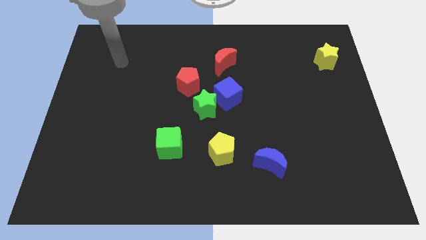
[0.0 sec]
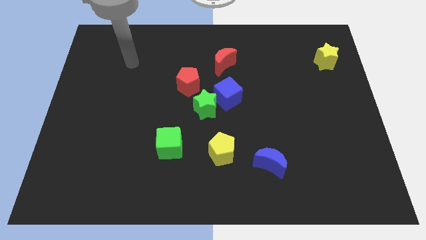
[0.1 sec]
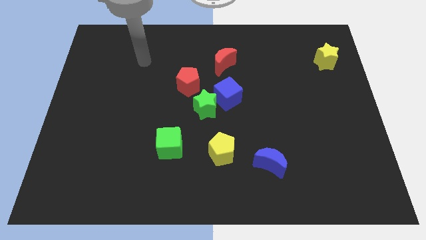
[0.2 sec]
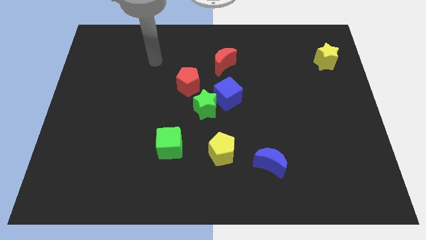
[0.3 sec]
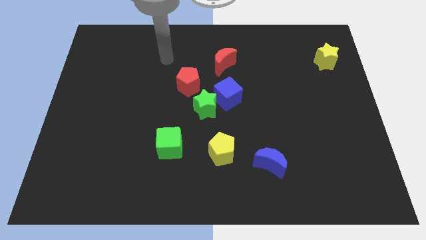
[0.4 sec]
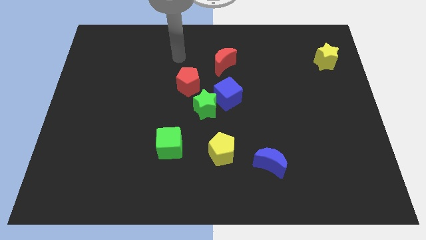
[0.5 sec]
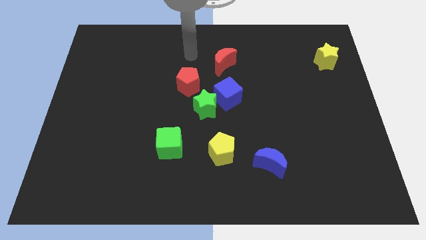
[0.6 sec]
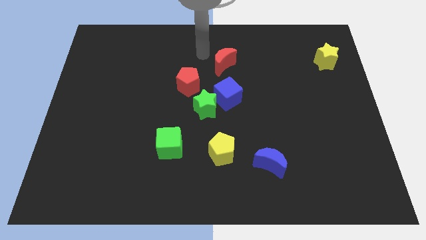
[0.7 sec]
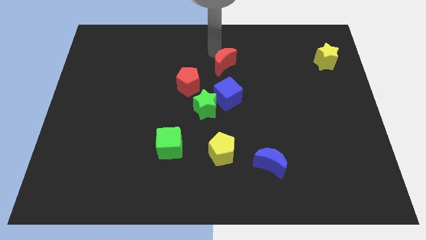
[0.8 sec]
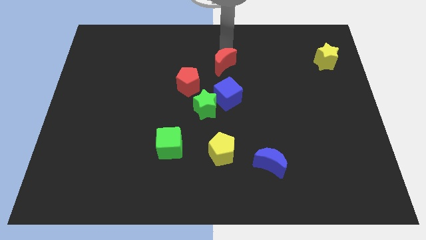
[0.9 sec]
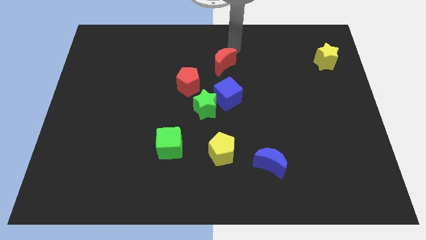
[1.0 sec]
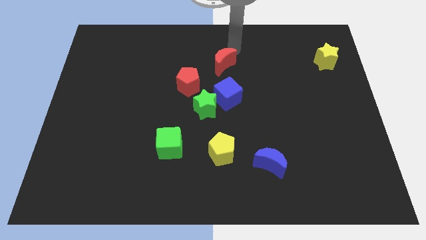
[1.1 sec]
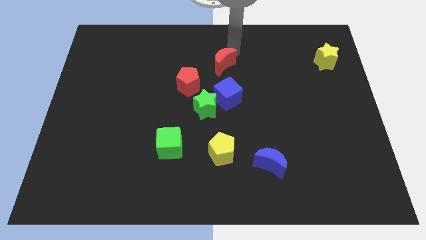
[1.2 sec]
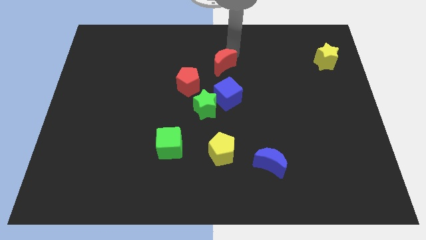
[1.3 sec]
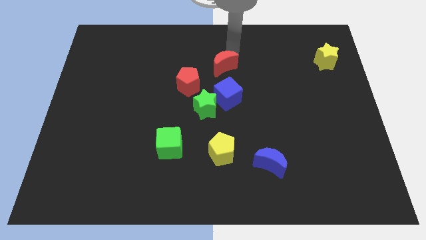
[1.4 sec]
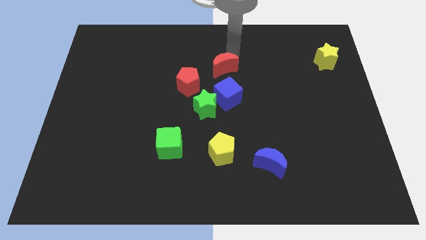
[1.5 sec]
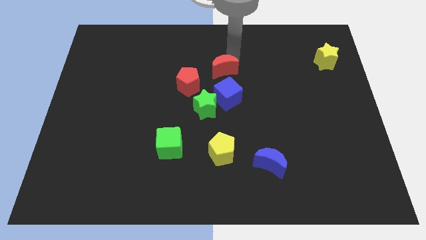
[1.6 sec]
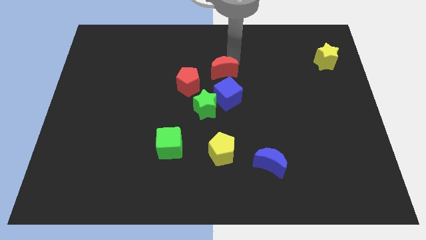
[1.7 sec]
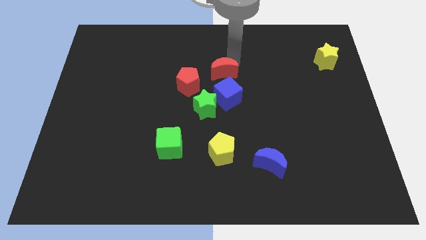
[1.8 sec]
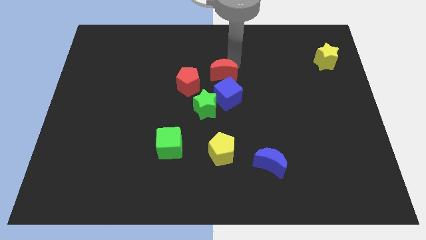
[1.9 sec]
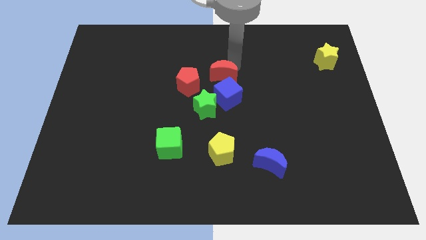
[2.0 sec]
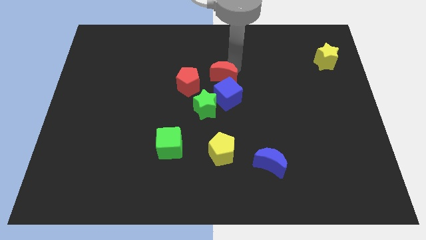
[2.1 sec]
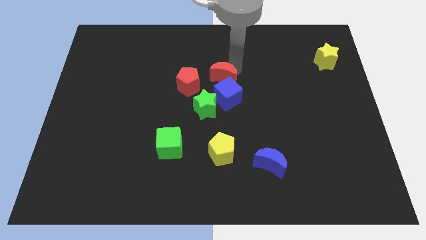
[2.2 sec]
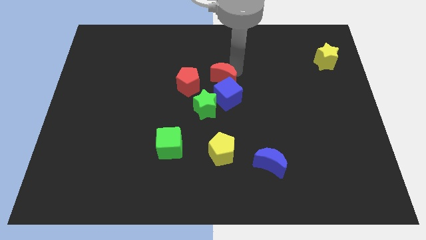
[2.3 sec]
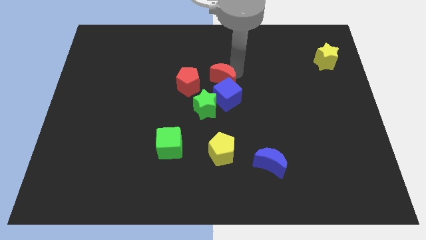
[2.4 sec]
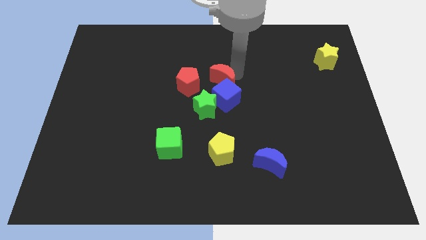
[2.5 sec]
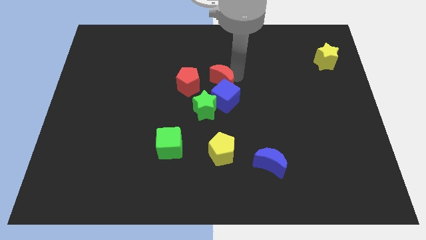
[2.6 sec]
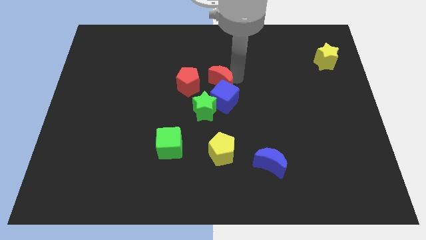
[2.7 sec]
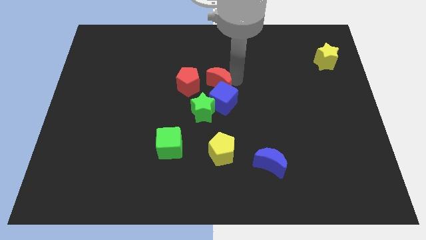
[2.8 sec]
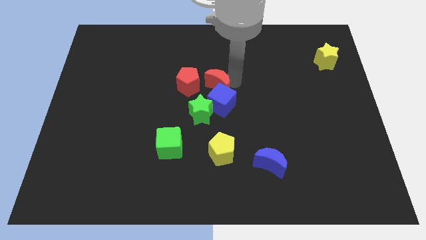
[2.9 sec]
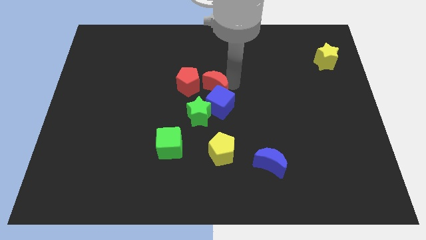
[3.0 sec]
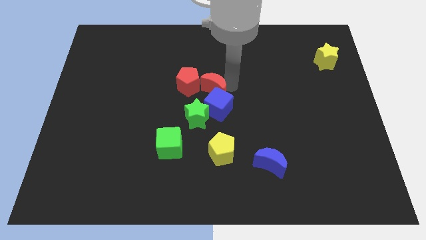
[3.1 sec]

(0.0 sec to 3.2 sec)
push the red moon down and to the left slightly

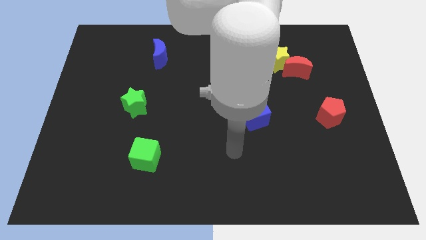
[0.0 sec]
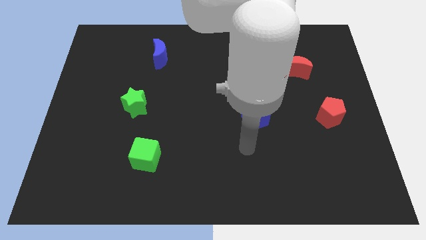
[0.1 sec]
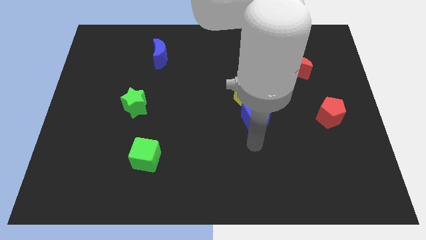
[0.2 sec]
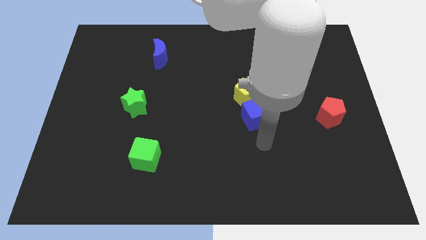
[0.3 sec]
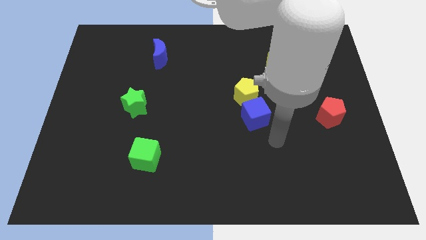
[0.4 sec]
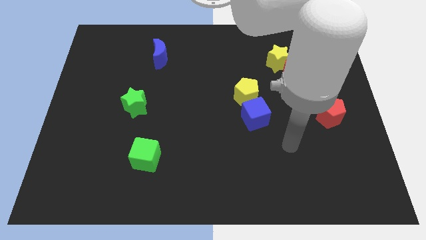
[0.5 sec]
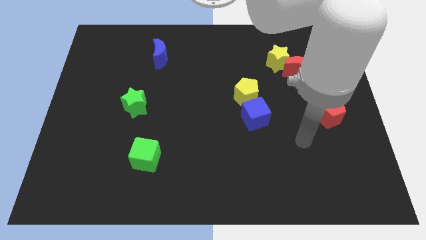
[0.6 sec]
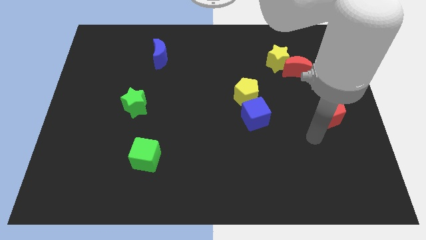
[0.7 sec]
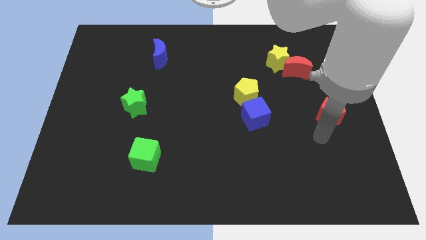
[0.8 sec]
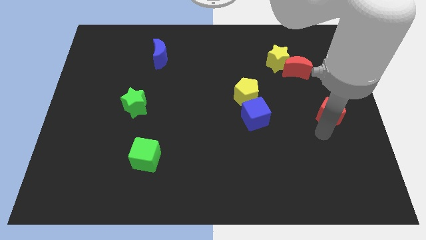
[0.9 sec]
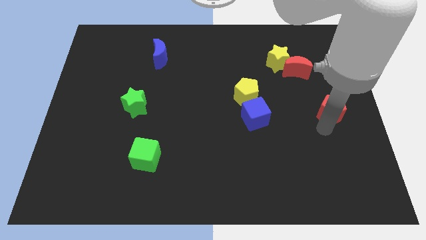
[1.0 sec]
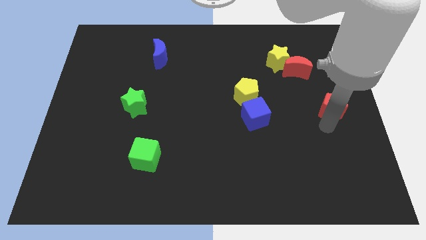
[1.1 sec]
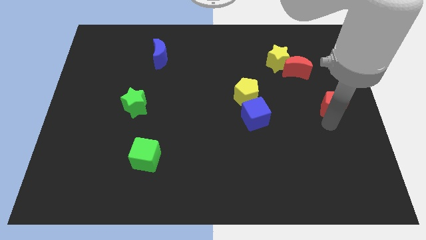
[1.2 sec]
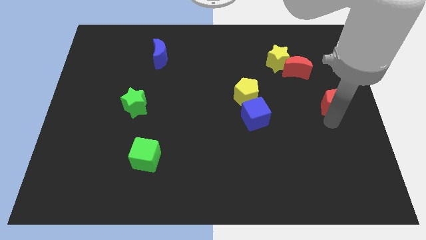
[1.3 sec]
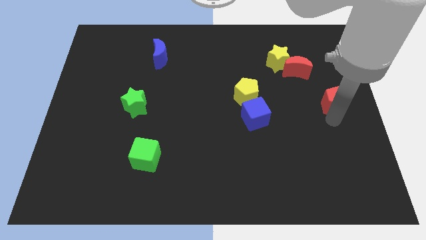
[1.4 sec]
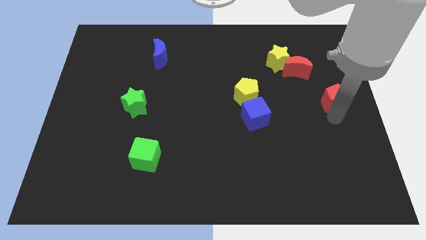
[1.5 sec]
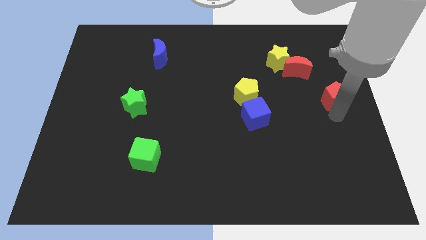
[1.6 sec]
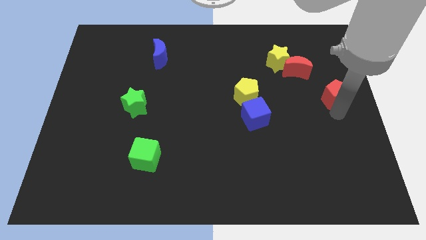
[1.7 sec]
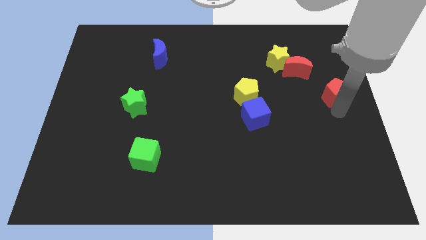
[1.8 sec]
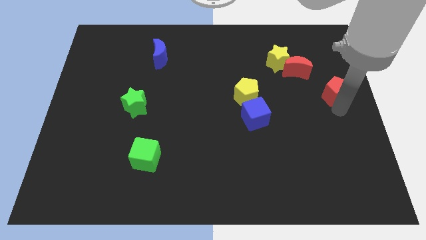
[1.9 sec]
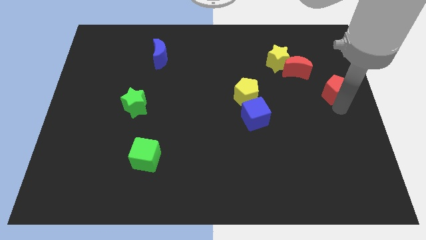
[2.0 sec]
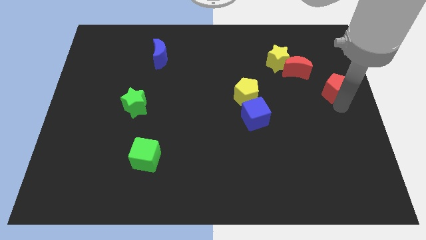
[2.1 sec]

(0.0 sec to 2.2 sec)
slightly push the red pentagon upwards

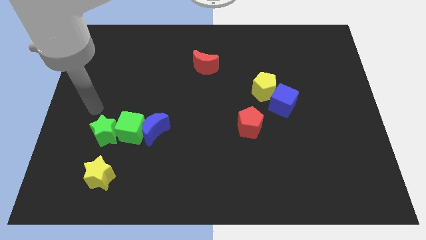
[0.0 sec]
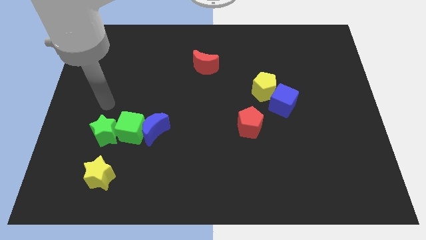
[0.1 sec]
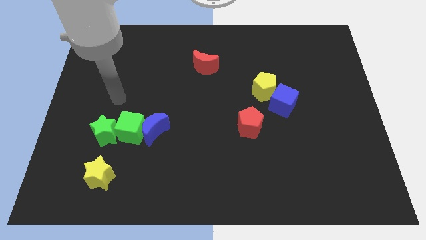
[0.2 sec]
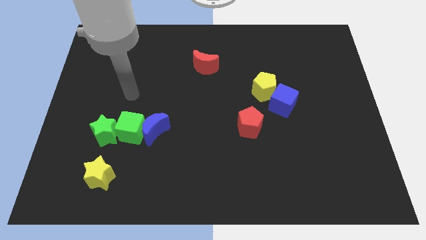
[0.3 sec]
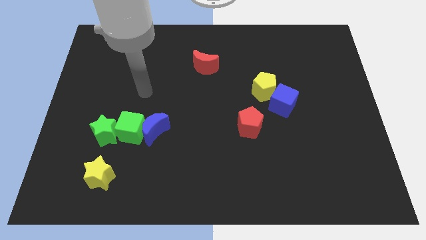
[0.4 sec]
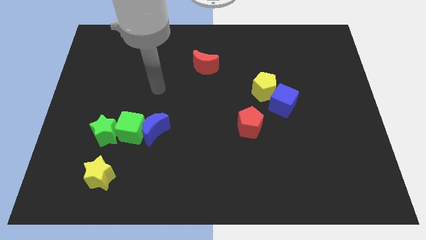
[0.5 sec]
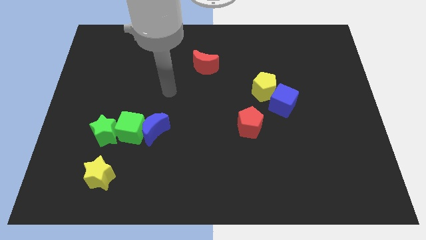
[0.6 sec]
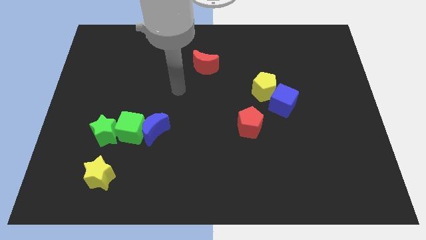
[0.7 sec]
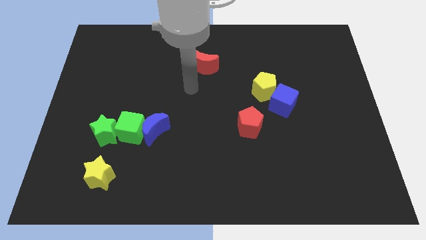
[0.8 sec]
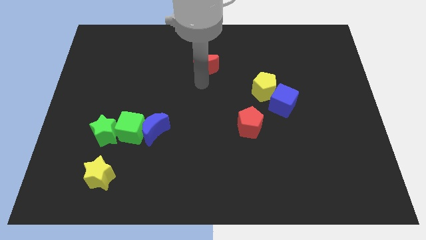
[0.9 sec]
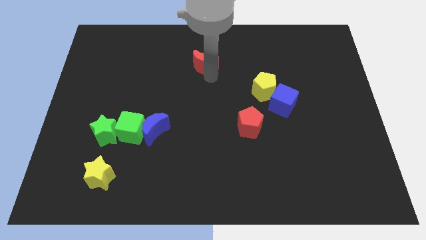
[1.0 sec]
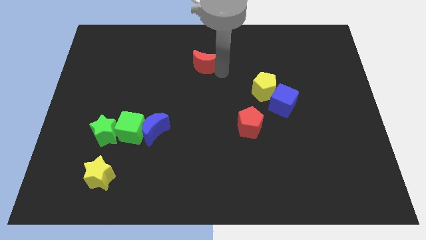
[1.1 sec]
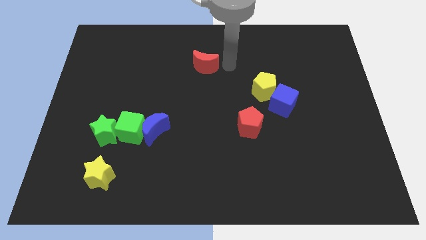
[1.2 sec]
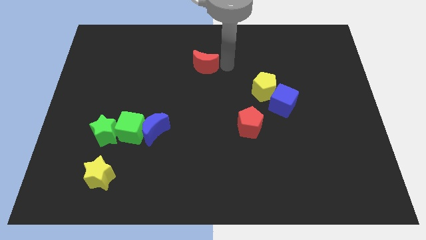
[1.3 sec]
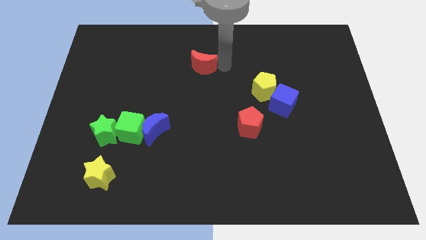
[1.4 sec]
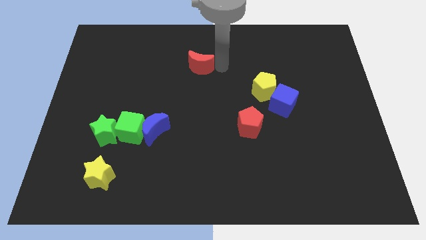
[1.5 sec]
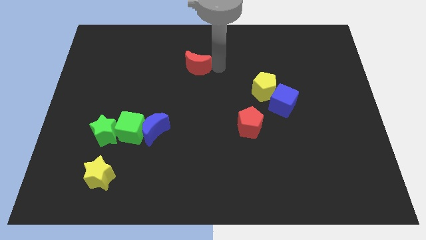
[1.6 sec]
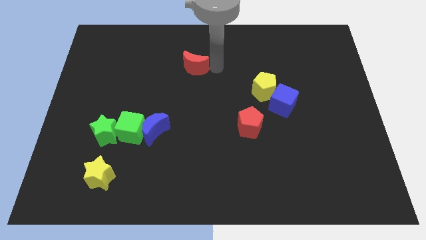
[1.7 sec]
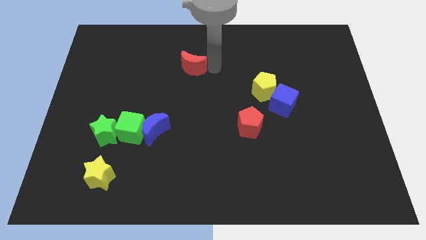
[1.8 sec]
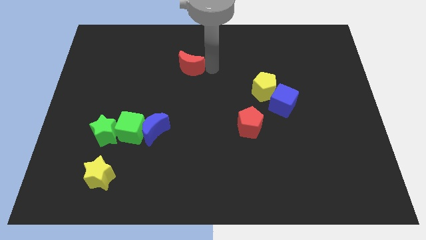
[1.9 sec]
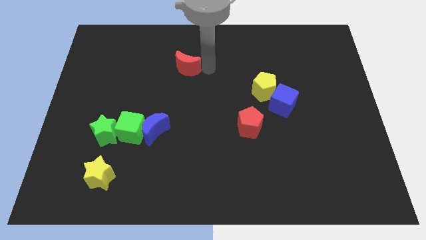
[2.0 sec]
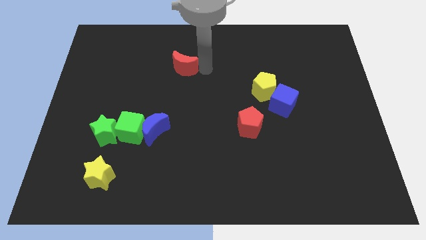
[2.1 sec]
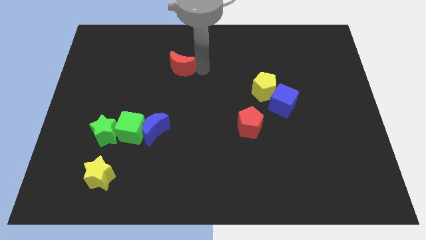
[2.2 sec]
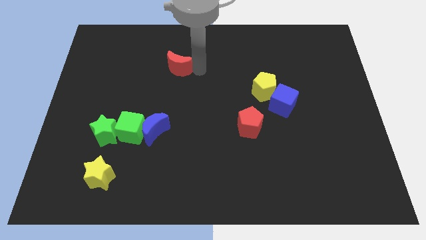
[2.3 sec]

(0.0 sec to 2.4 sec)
move the red moon to the left somewhat

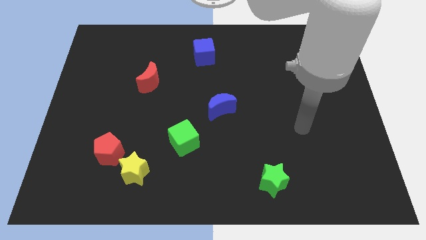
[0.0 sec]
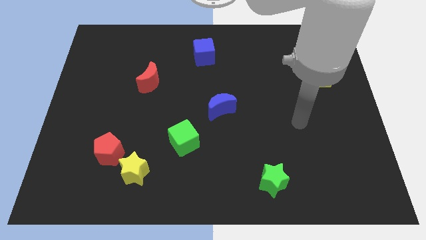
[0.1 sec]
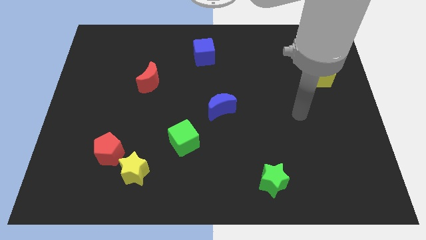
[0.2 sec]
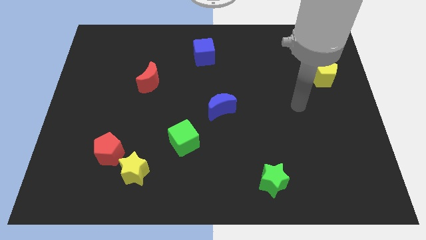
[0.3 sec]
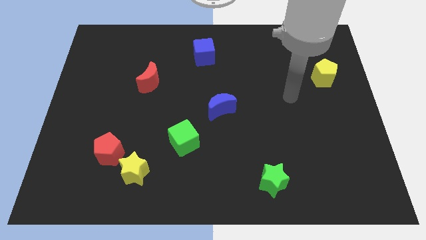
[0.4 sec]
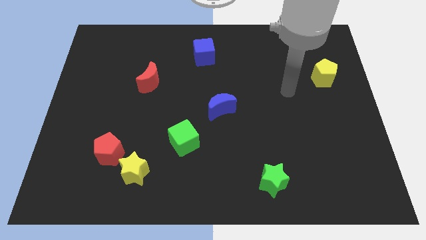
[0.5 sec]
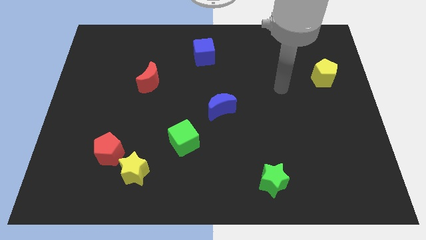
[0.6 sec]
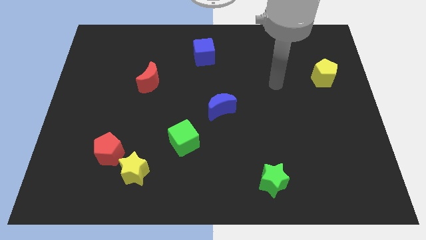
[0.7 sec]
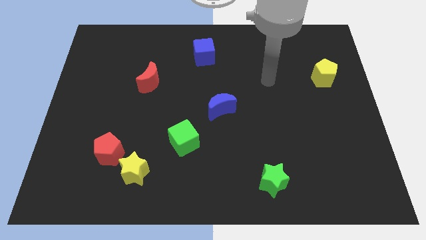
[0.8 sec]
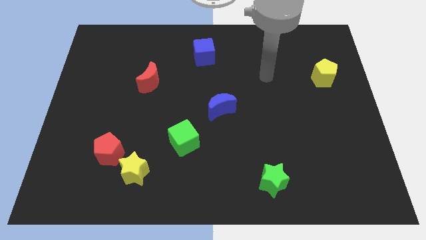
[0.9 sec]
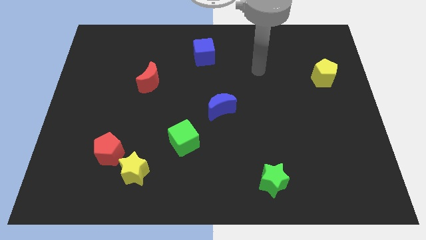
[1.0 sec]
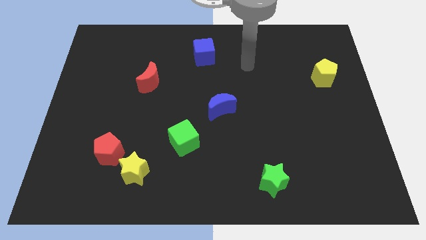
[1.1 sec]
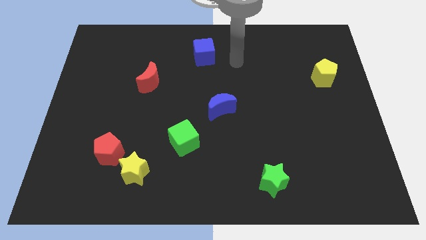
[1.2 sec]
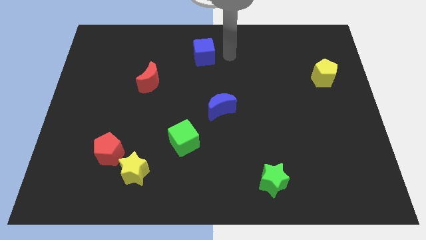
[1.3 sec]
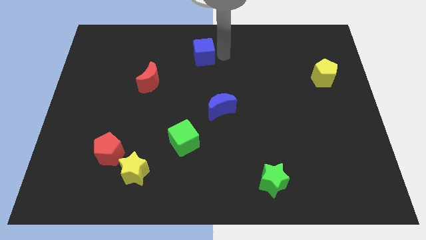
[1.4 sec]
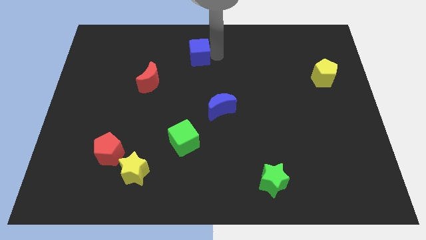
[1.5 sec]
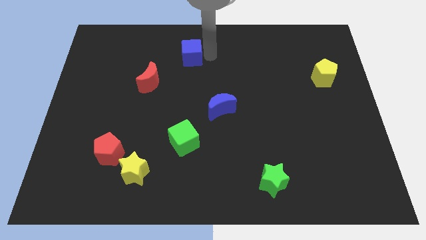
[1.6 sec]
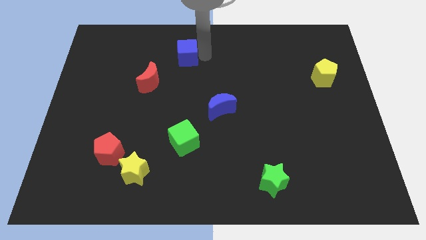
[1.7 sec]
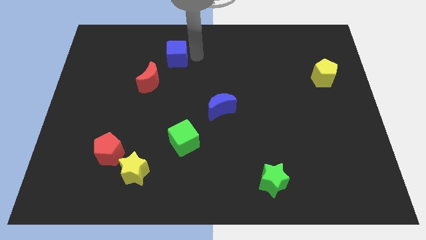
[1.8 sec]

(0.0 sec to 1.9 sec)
slightly move the blue cube to the left
